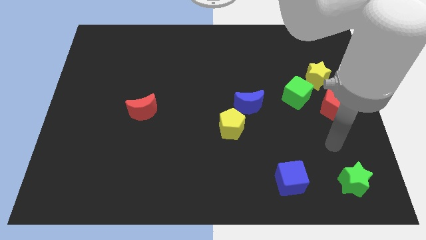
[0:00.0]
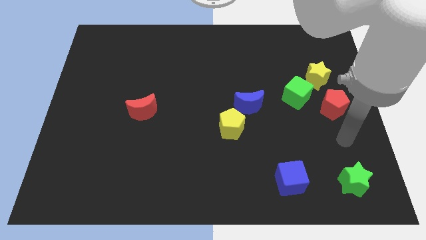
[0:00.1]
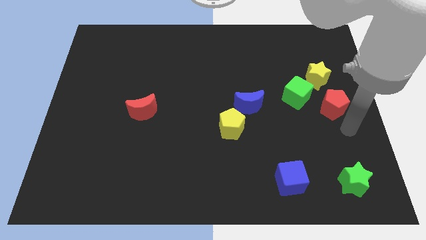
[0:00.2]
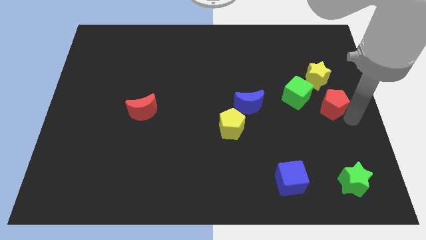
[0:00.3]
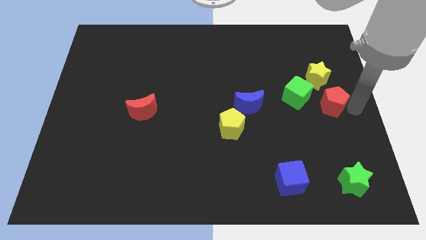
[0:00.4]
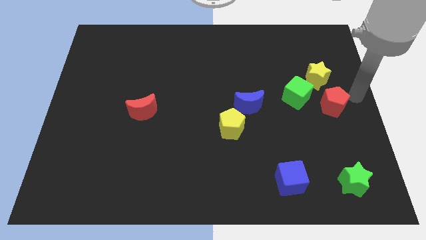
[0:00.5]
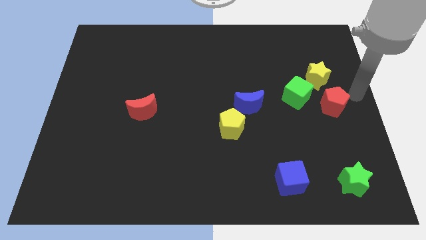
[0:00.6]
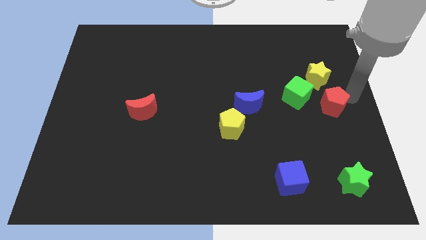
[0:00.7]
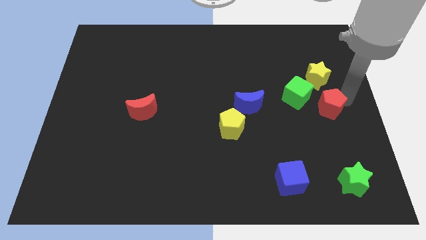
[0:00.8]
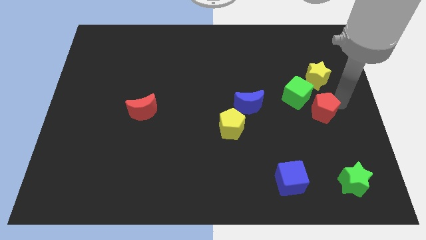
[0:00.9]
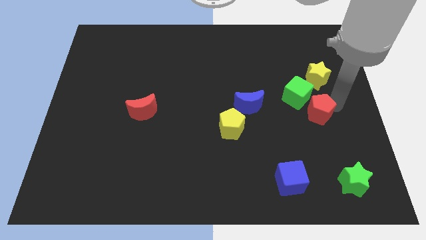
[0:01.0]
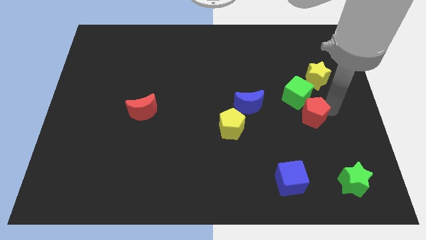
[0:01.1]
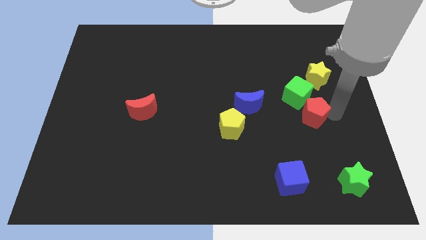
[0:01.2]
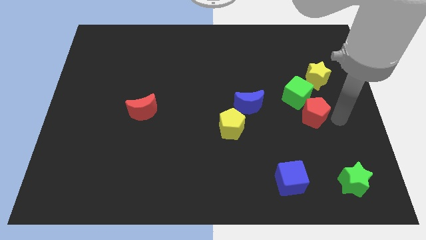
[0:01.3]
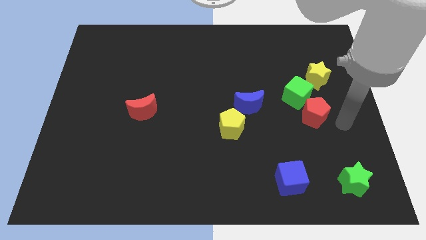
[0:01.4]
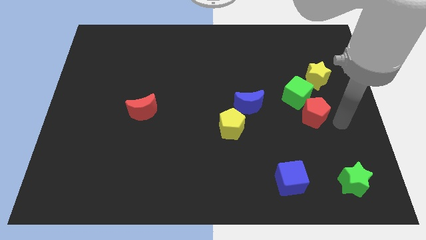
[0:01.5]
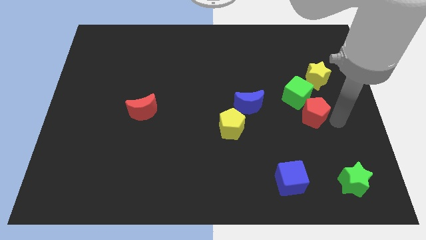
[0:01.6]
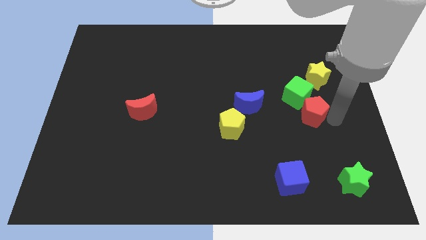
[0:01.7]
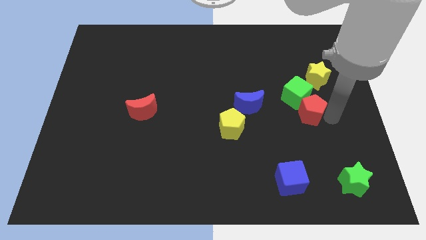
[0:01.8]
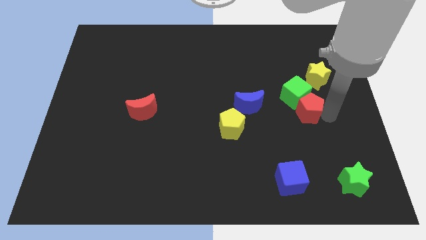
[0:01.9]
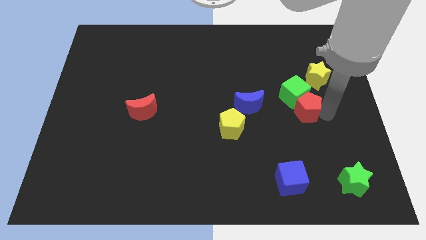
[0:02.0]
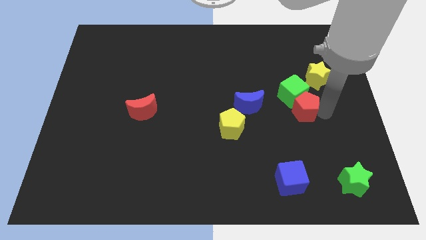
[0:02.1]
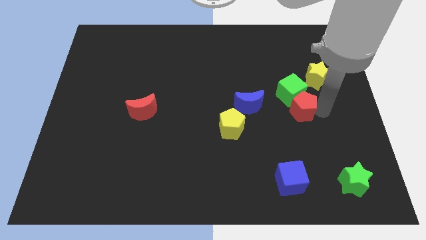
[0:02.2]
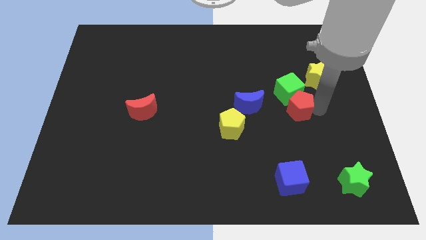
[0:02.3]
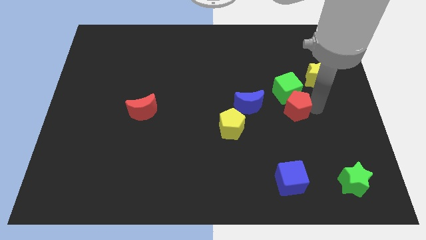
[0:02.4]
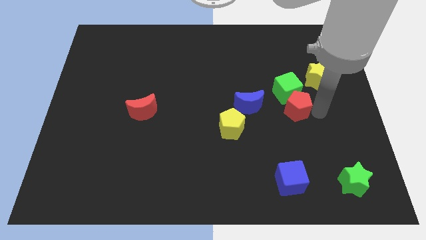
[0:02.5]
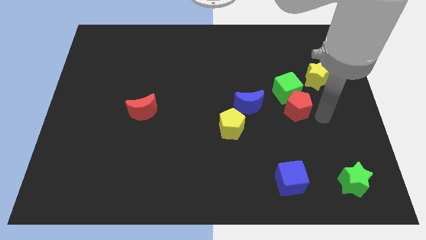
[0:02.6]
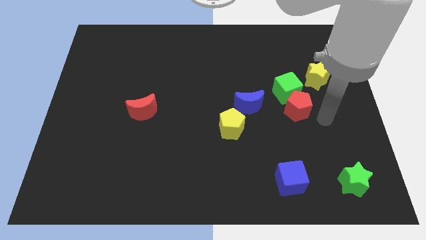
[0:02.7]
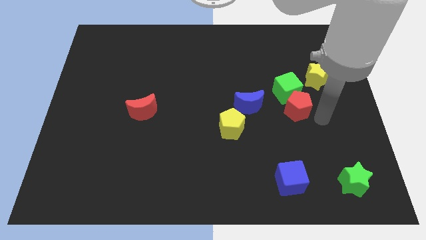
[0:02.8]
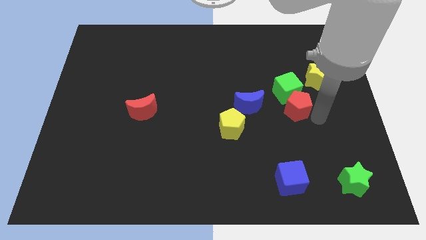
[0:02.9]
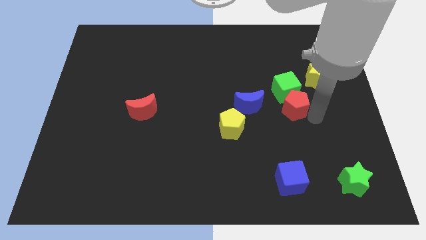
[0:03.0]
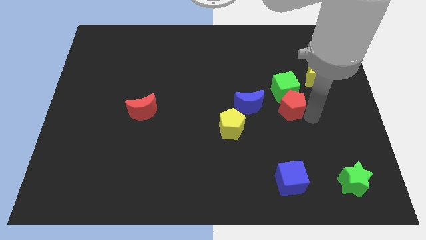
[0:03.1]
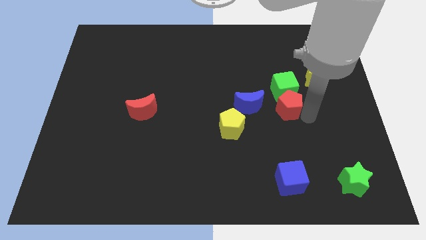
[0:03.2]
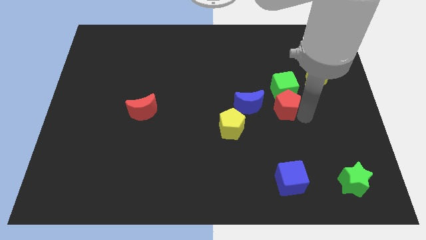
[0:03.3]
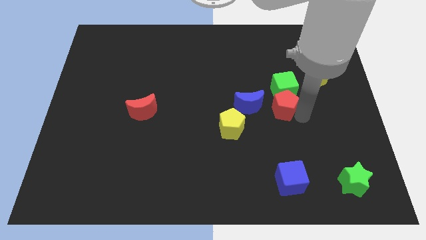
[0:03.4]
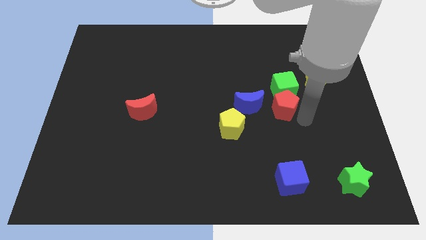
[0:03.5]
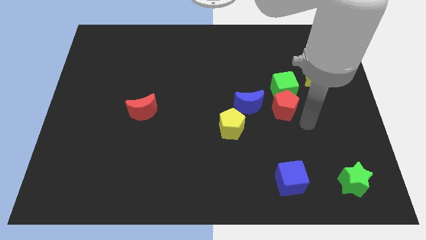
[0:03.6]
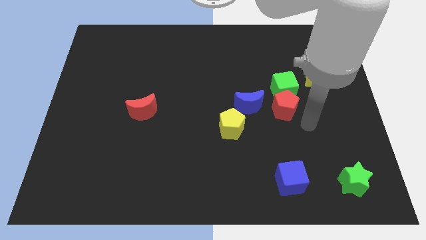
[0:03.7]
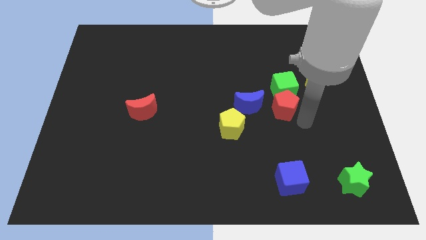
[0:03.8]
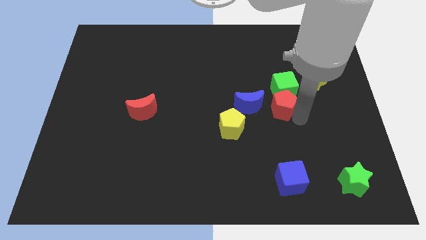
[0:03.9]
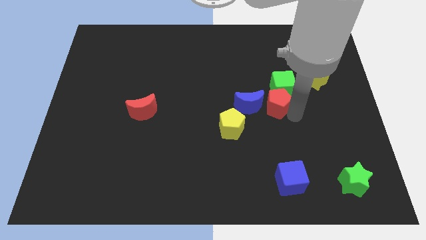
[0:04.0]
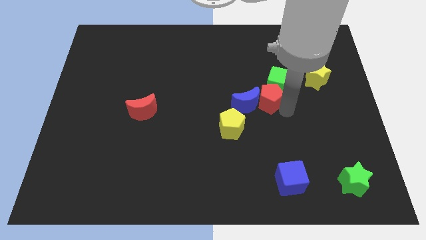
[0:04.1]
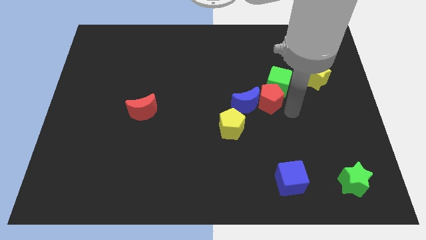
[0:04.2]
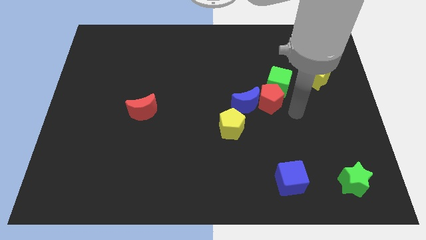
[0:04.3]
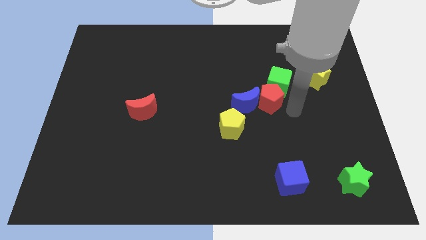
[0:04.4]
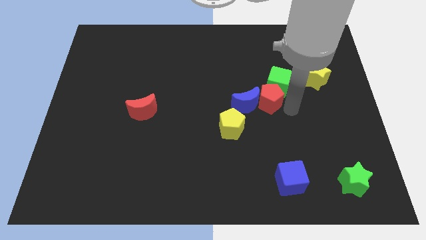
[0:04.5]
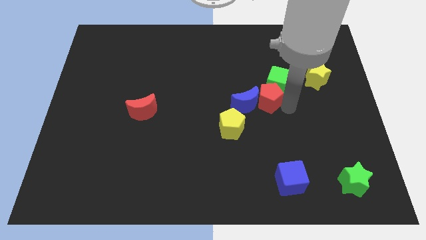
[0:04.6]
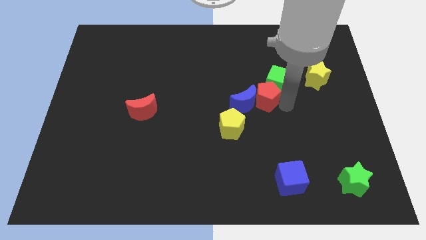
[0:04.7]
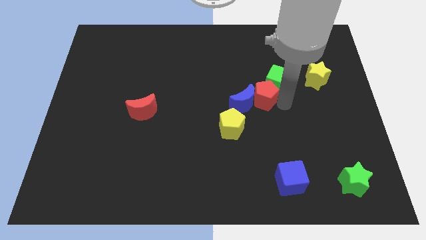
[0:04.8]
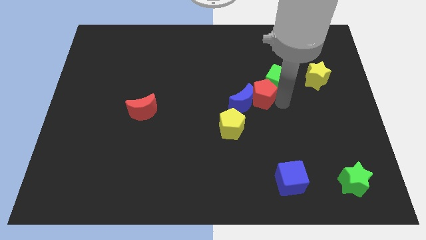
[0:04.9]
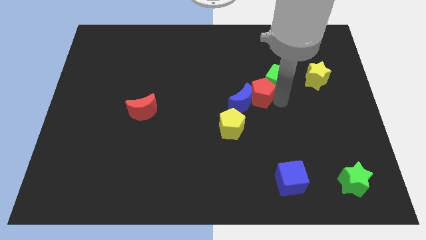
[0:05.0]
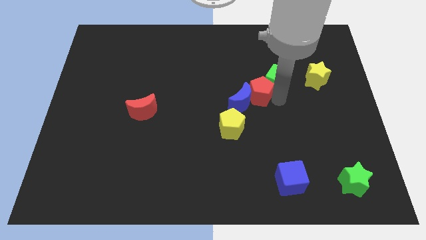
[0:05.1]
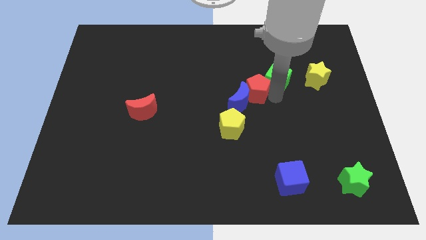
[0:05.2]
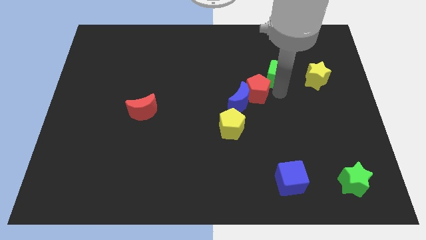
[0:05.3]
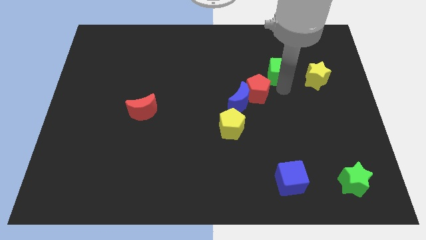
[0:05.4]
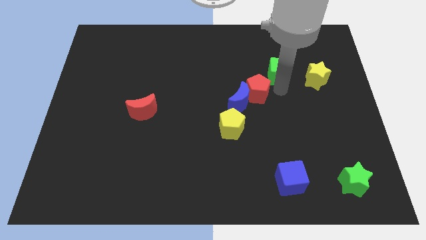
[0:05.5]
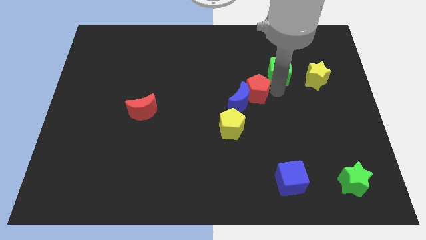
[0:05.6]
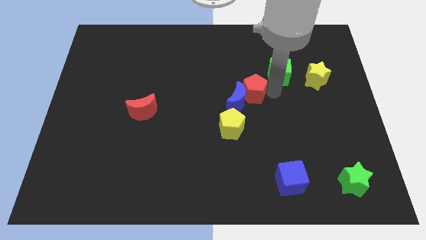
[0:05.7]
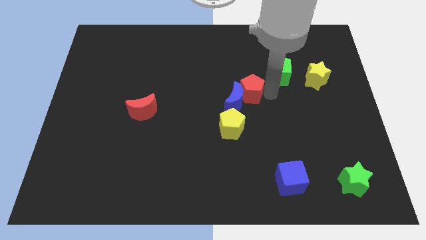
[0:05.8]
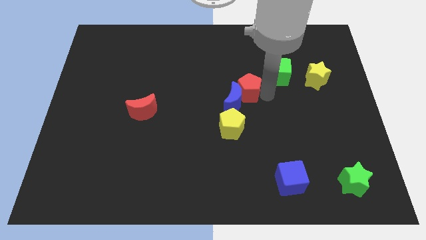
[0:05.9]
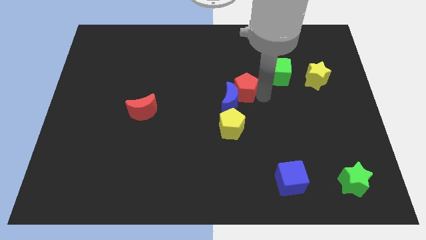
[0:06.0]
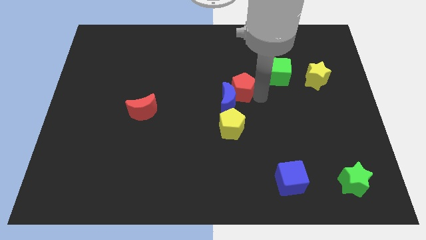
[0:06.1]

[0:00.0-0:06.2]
slide the red pentagon left

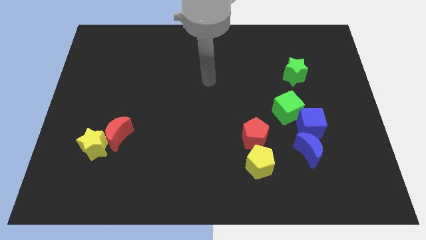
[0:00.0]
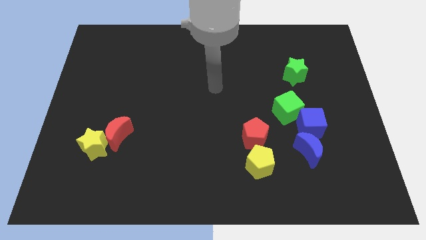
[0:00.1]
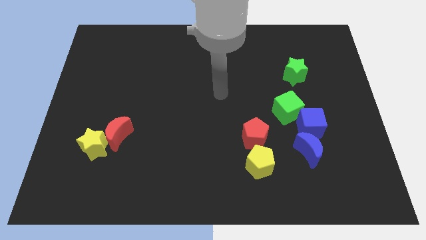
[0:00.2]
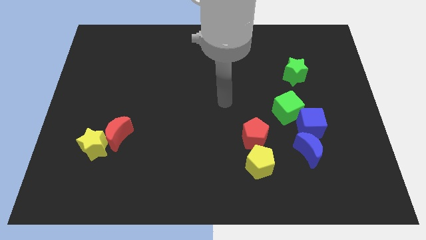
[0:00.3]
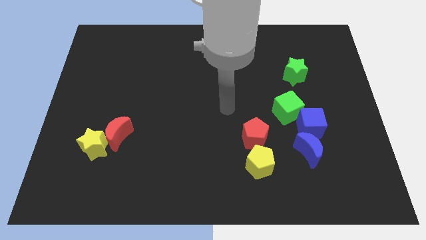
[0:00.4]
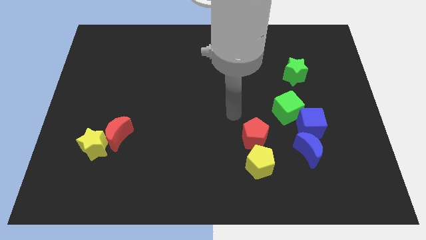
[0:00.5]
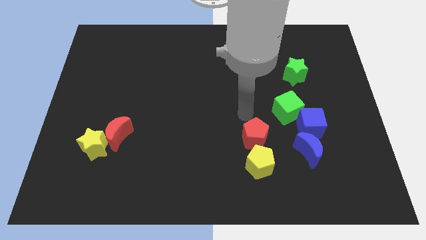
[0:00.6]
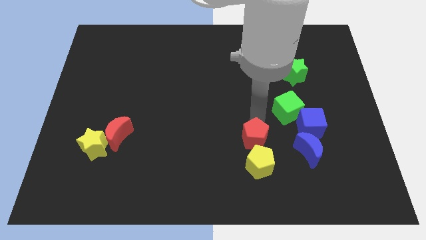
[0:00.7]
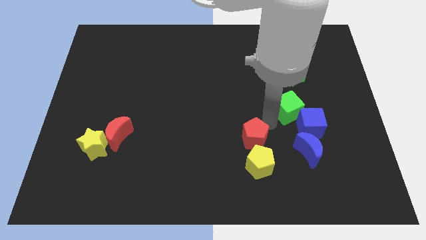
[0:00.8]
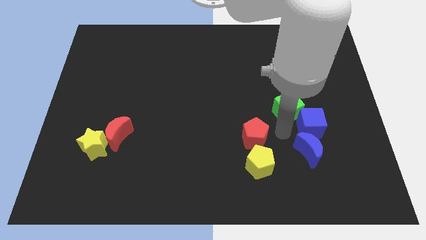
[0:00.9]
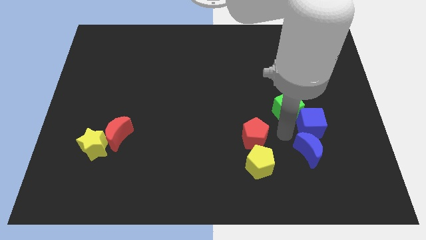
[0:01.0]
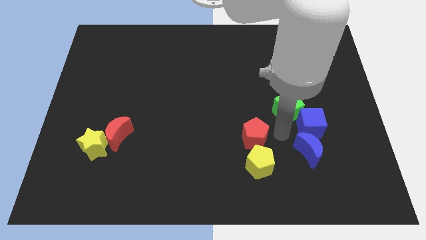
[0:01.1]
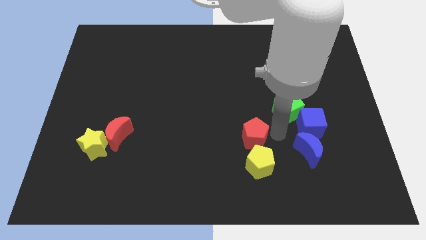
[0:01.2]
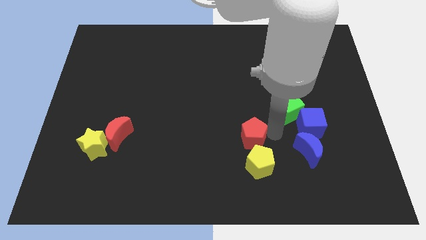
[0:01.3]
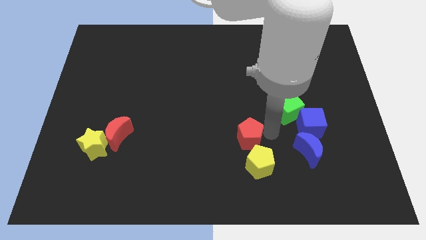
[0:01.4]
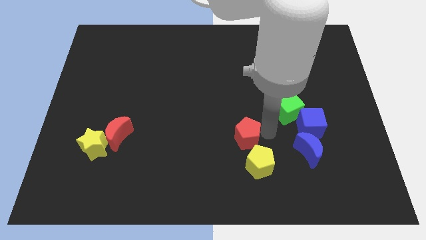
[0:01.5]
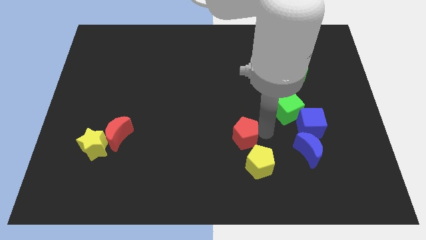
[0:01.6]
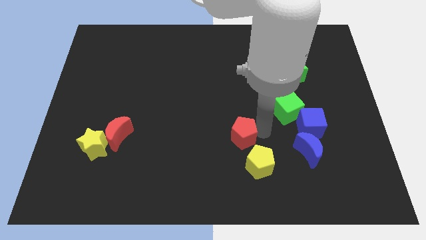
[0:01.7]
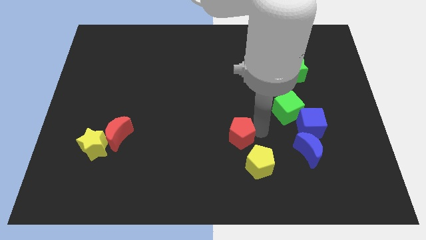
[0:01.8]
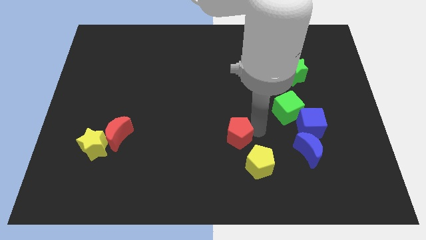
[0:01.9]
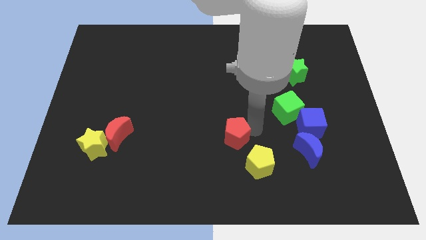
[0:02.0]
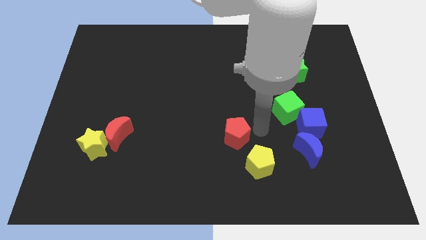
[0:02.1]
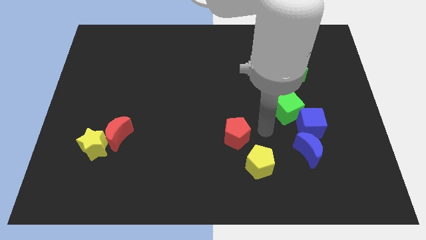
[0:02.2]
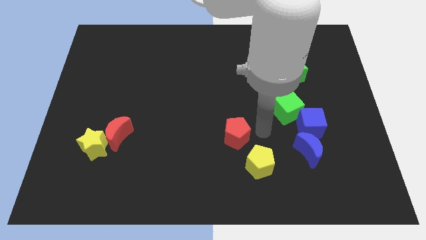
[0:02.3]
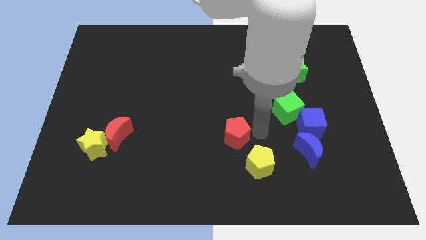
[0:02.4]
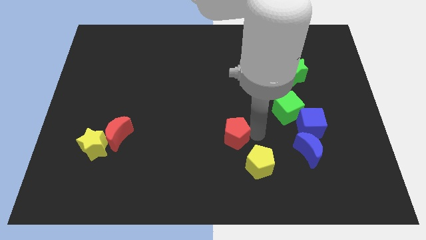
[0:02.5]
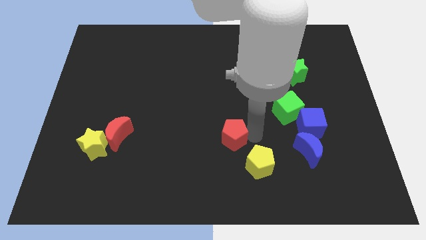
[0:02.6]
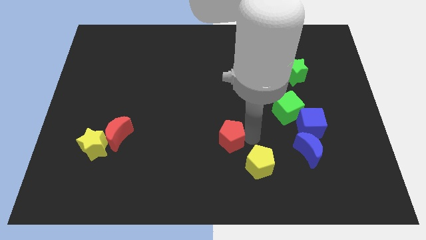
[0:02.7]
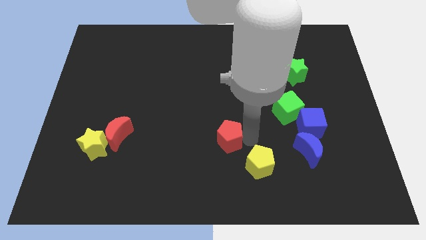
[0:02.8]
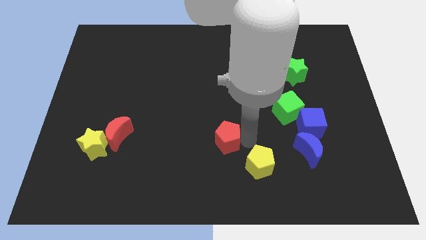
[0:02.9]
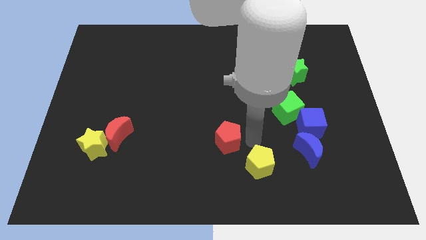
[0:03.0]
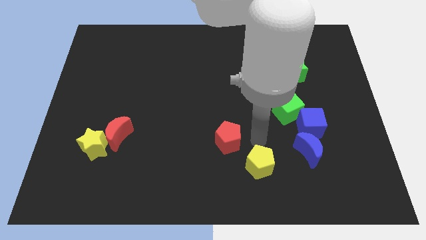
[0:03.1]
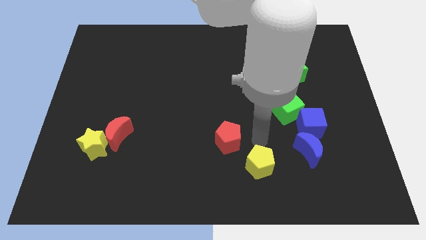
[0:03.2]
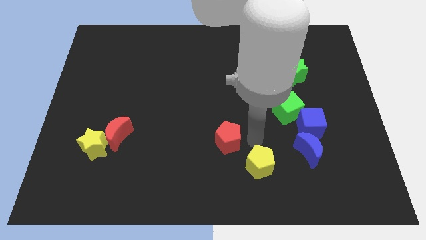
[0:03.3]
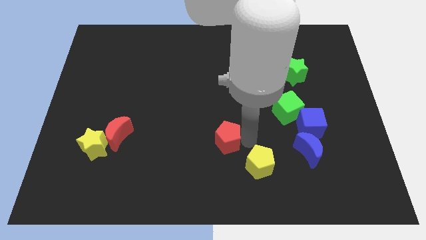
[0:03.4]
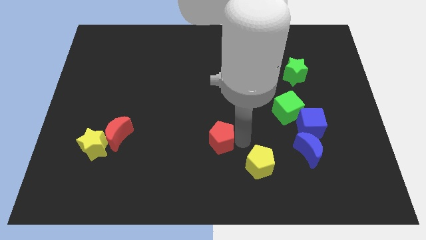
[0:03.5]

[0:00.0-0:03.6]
slightly push the red pentagon to the left
